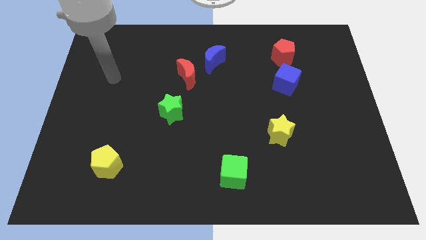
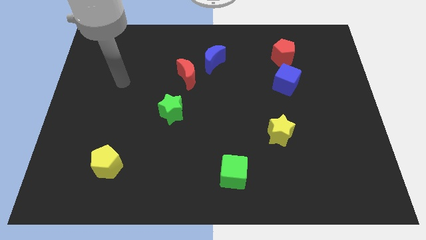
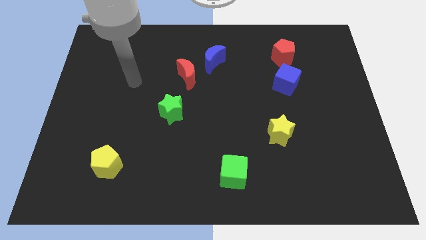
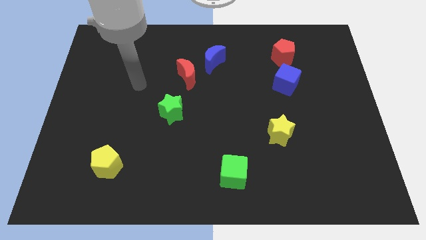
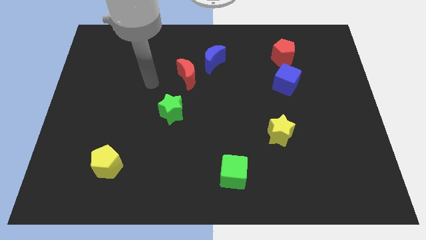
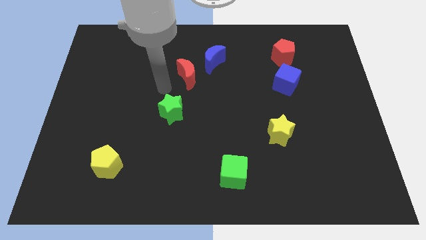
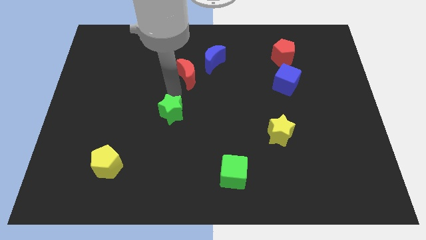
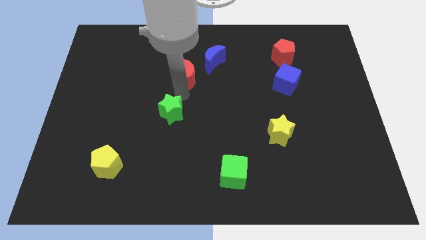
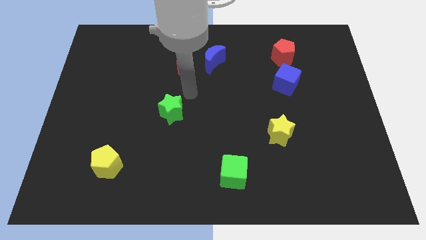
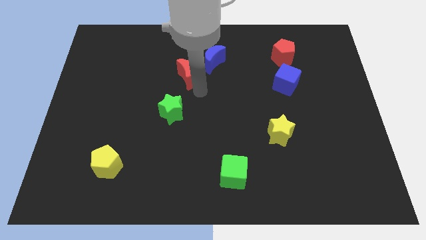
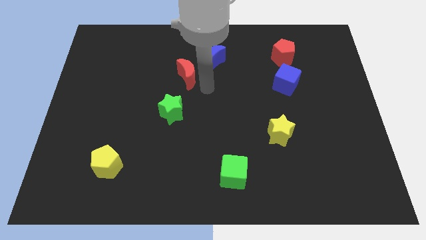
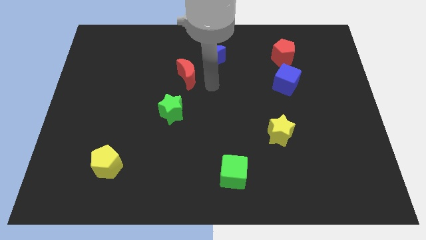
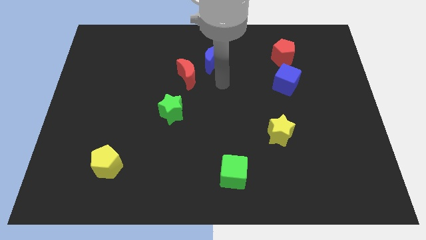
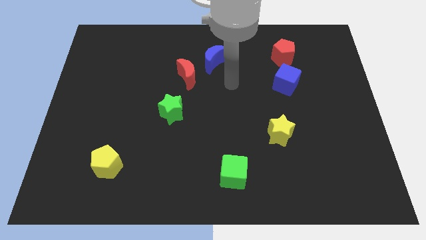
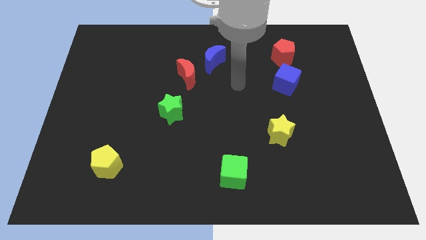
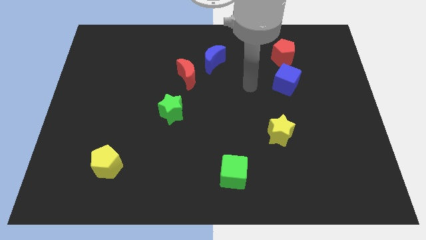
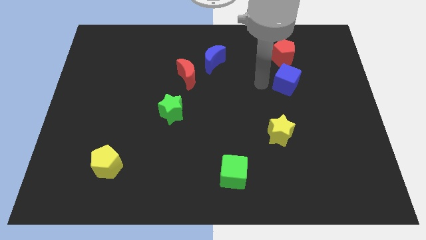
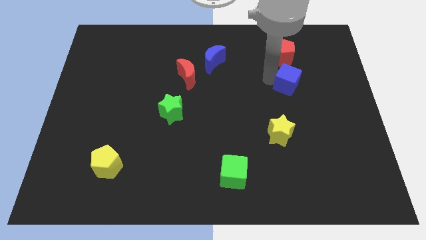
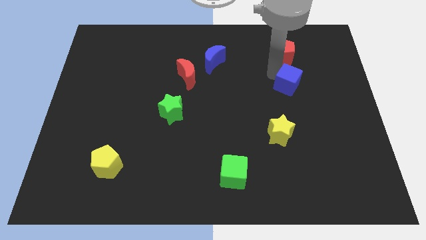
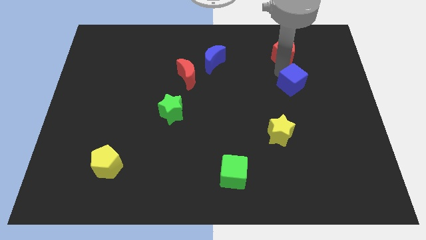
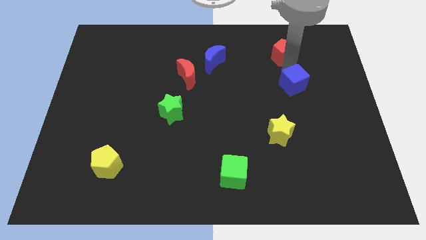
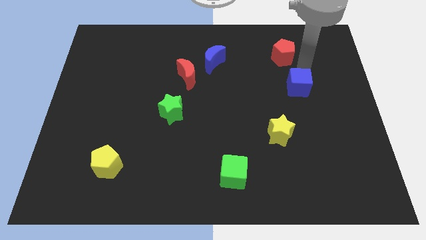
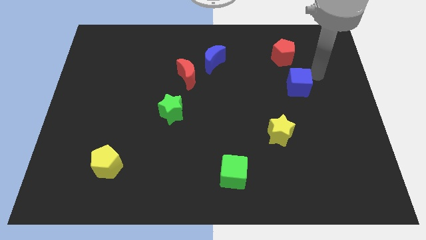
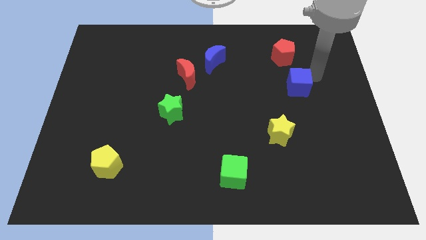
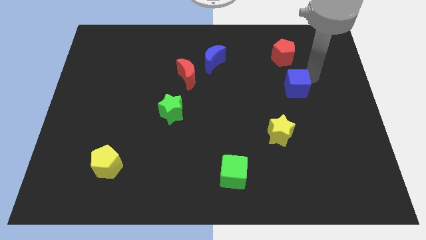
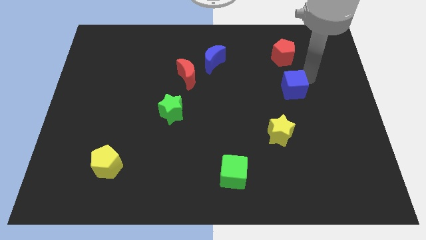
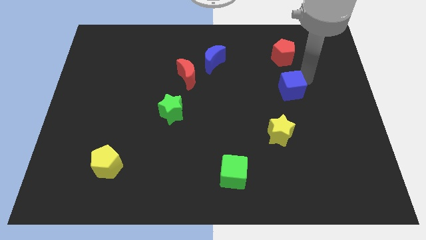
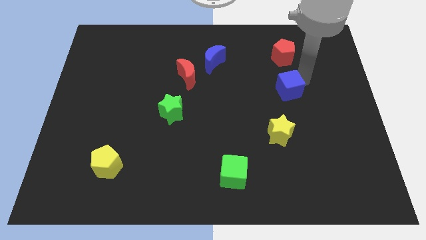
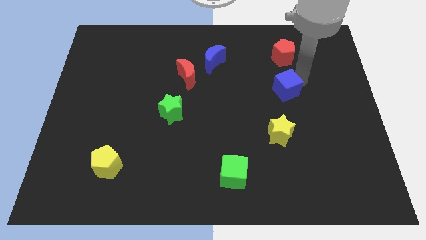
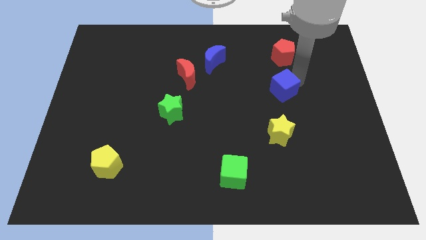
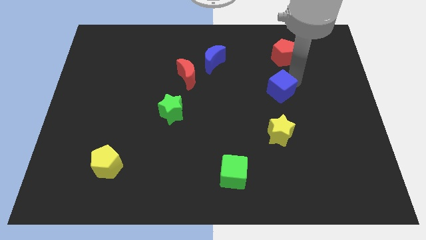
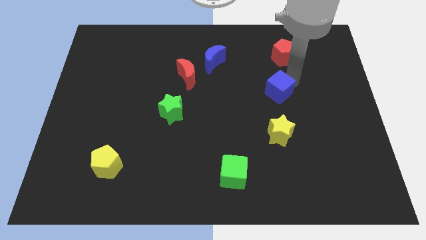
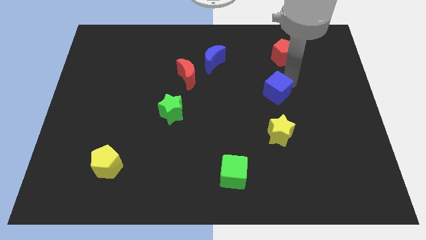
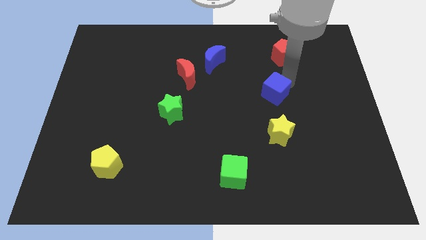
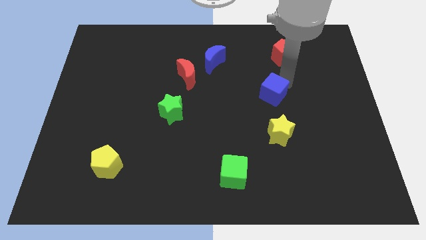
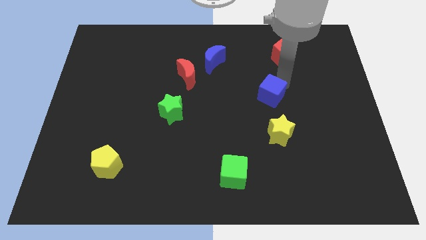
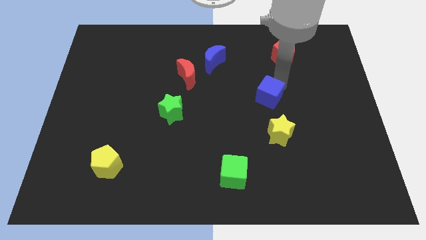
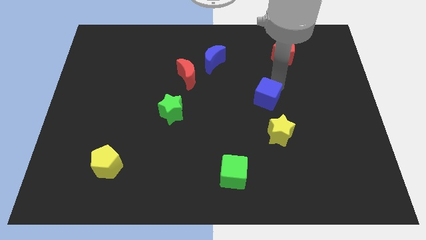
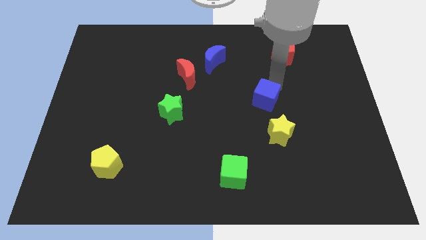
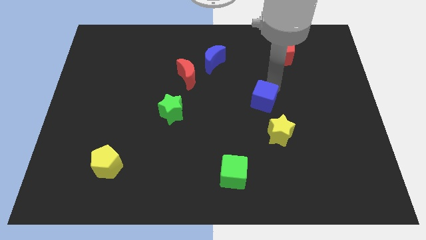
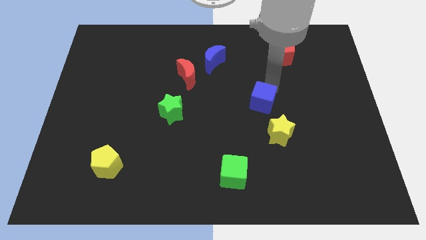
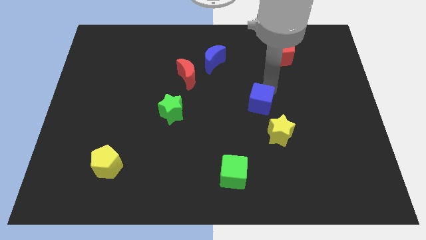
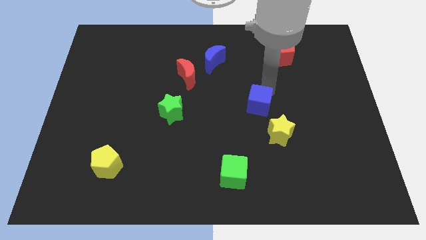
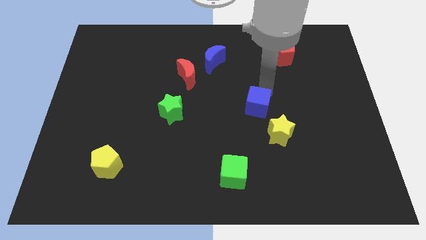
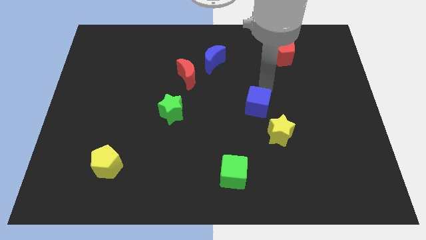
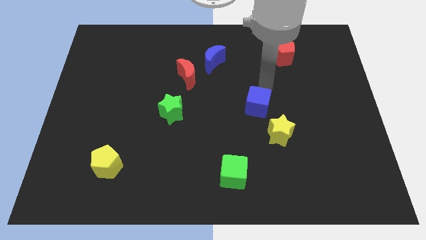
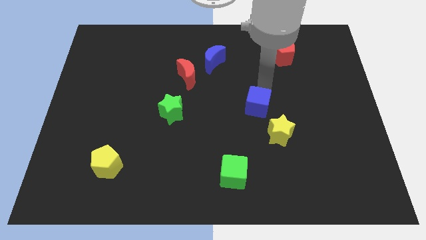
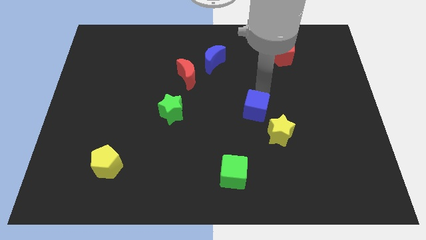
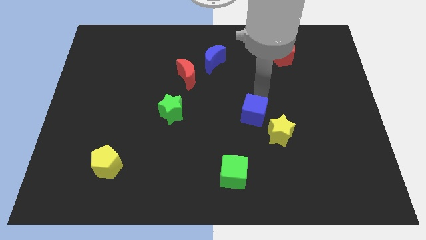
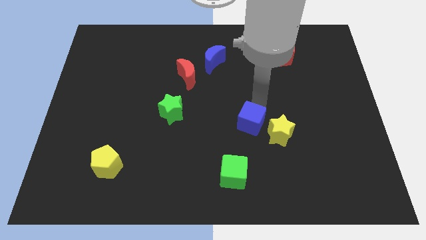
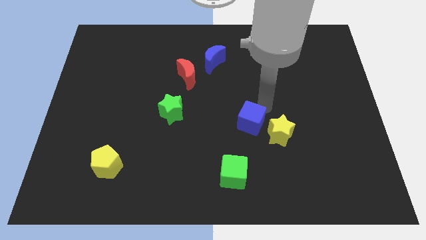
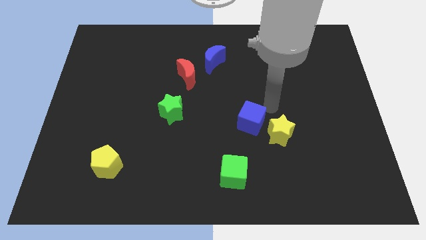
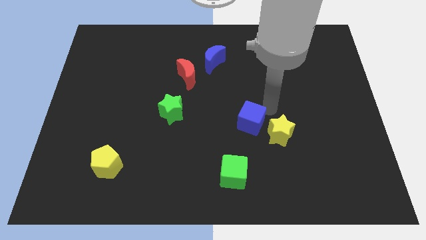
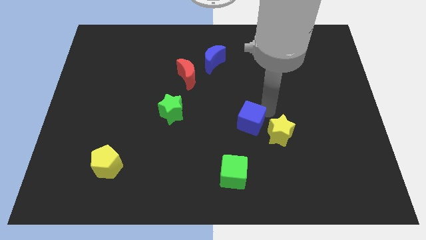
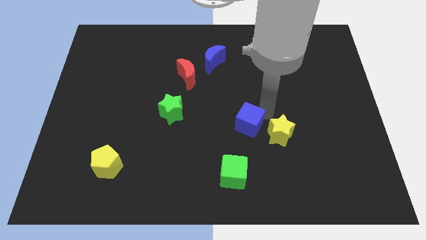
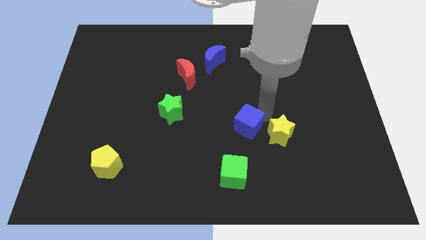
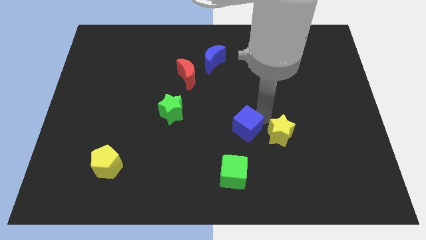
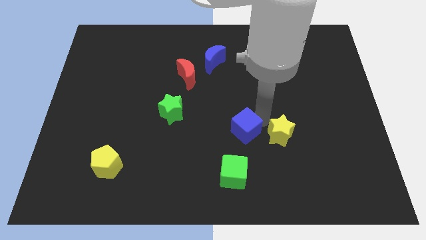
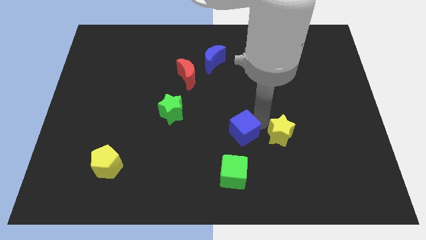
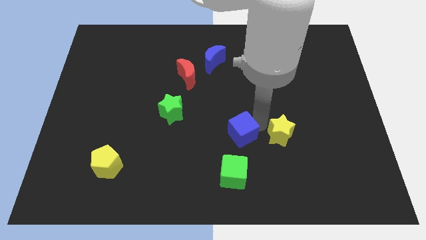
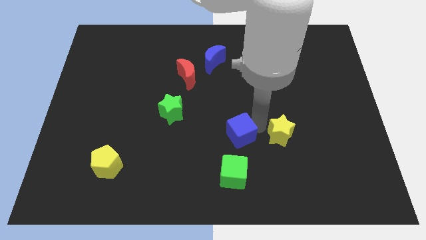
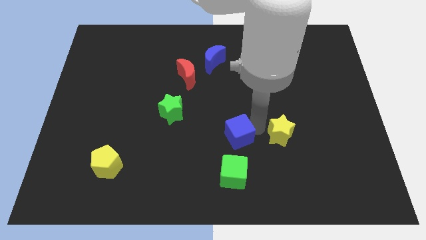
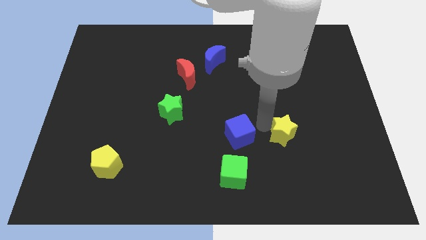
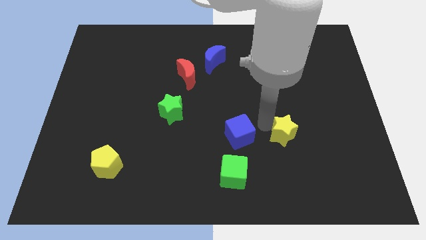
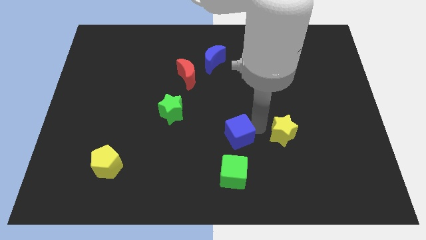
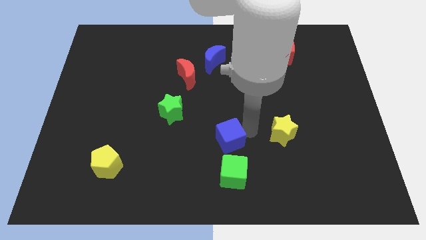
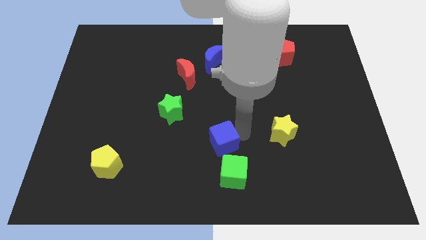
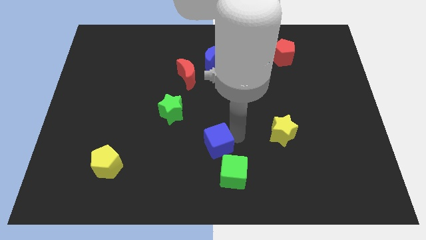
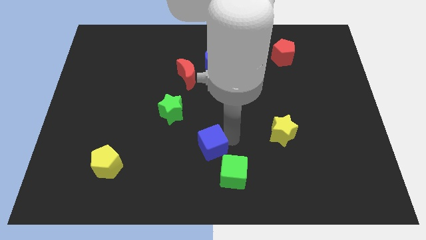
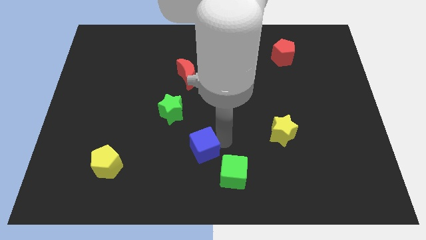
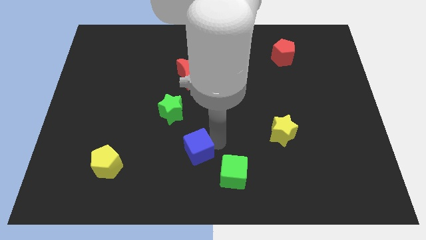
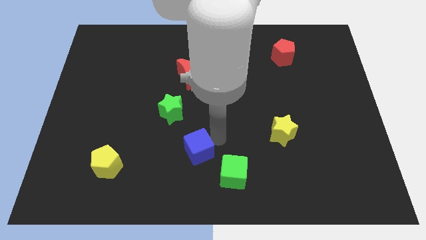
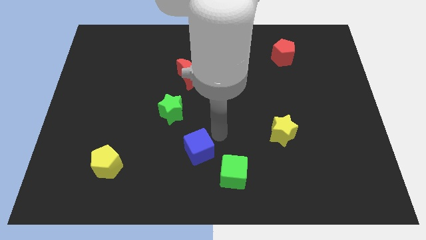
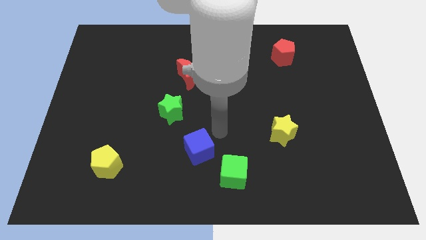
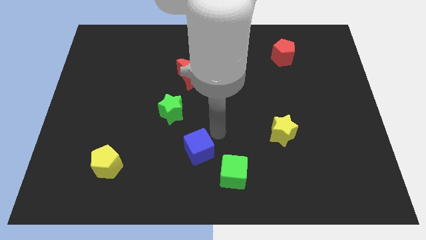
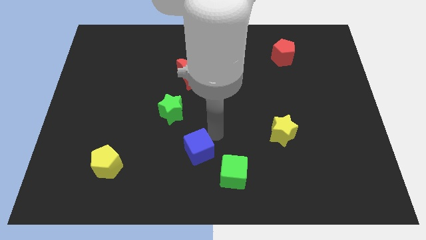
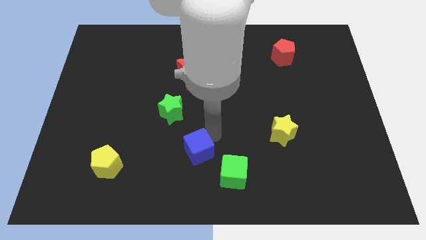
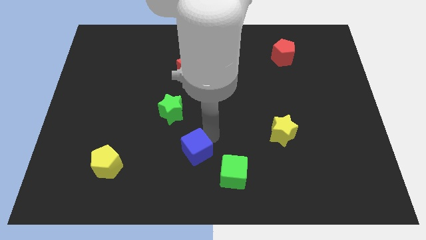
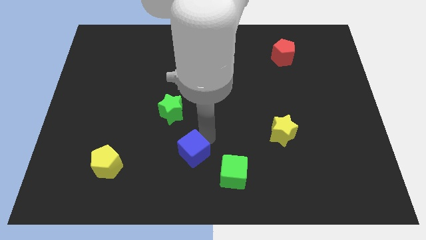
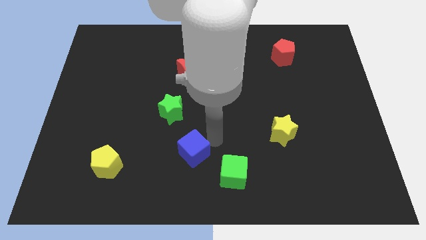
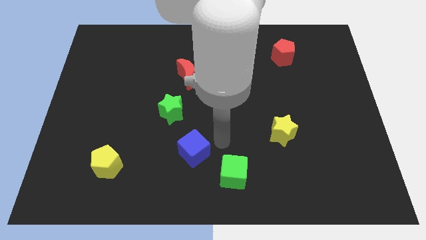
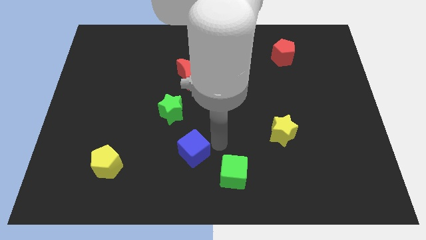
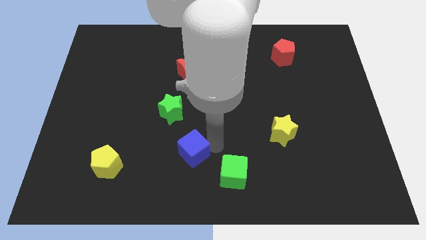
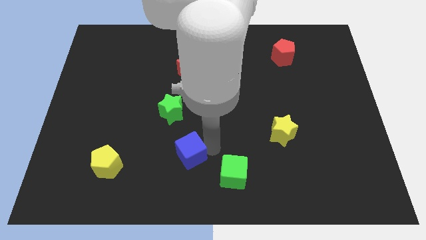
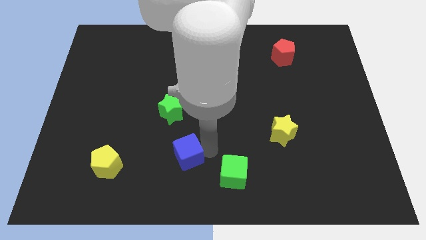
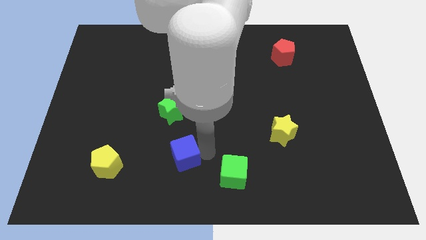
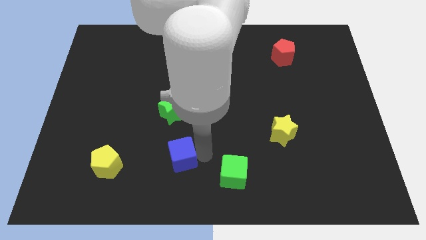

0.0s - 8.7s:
slide the blue cube to the right side of the yellow pentagon
